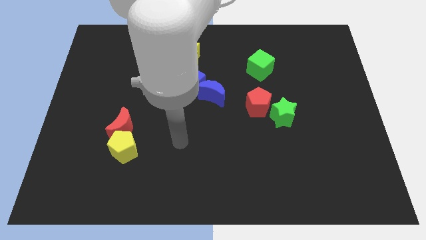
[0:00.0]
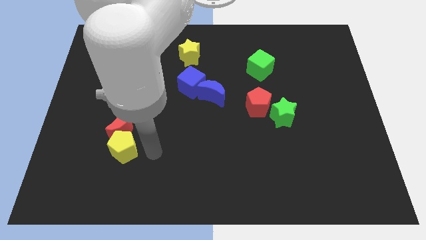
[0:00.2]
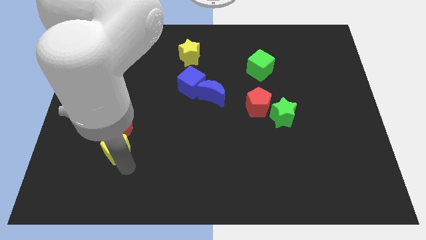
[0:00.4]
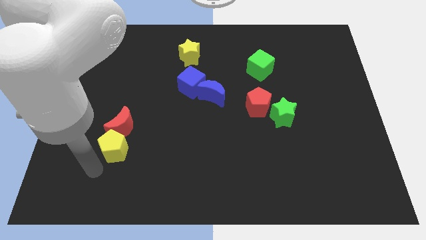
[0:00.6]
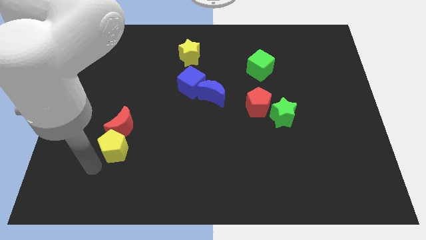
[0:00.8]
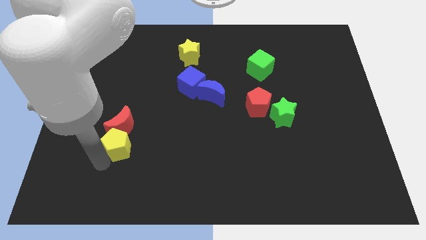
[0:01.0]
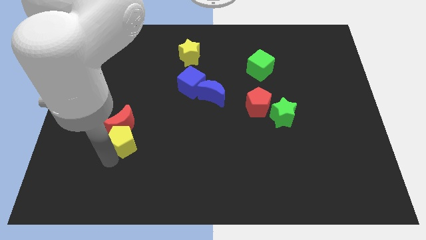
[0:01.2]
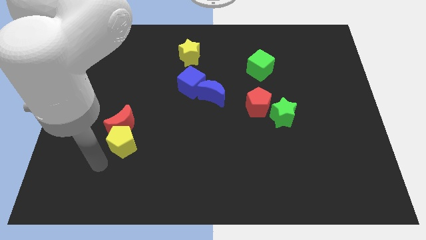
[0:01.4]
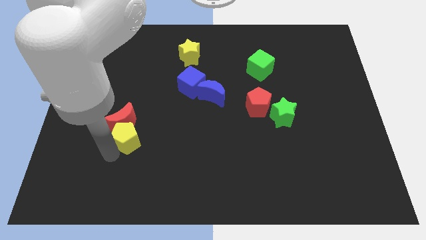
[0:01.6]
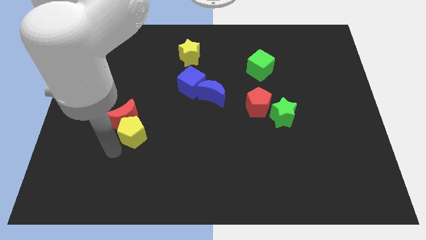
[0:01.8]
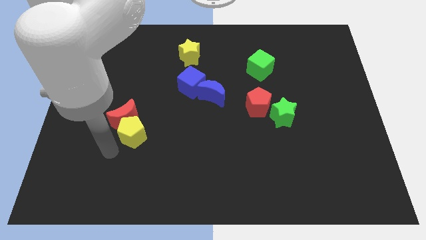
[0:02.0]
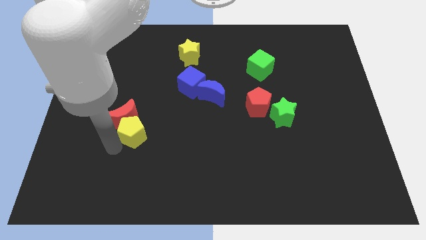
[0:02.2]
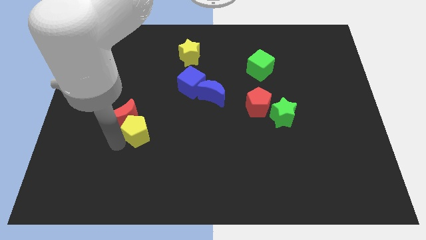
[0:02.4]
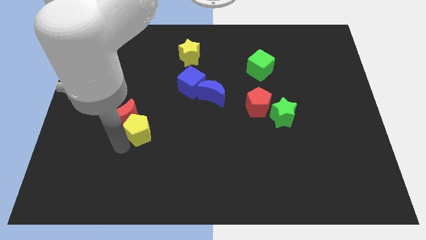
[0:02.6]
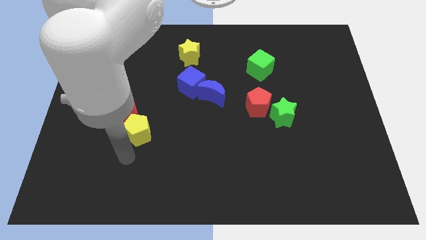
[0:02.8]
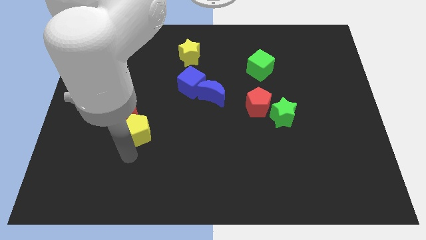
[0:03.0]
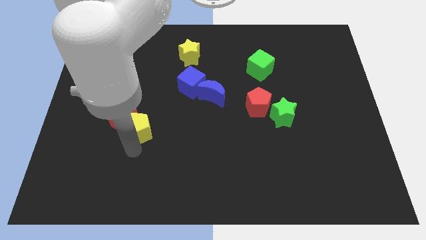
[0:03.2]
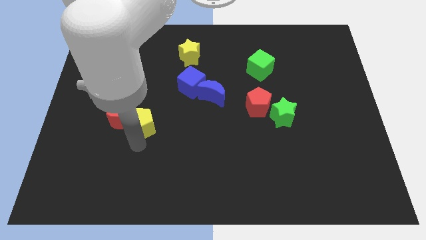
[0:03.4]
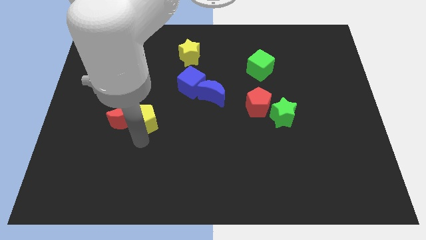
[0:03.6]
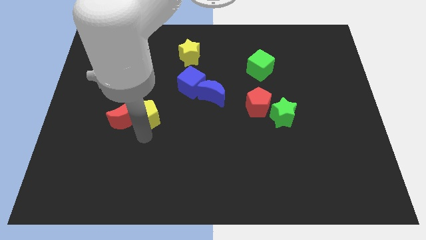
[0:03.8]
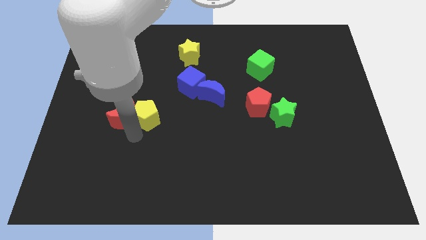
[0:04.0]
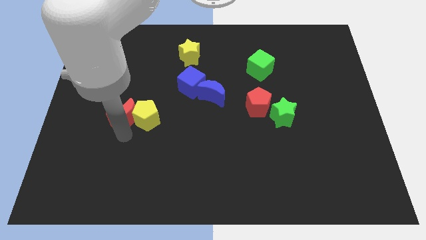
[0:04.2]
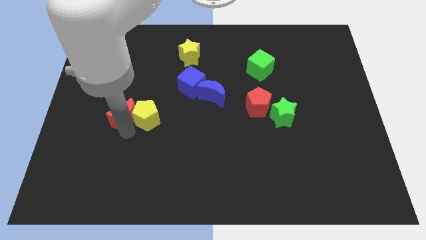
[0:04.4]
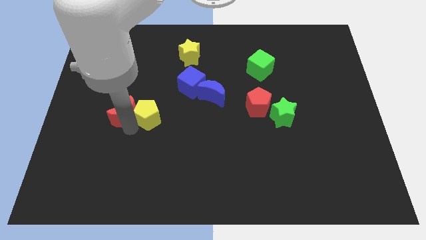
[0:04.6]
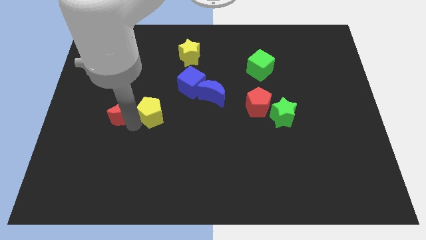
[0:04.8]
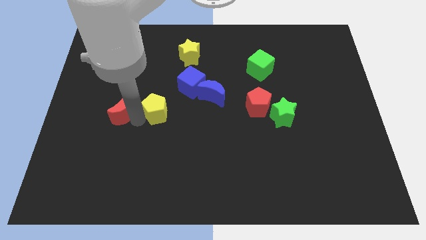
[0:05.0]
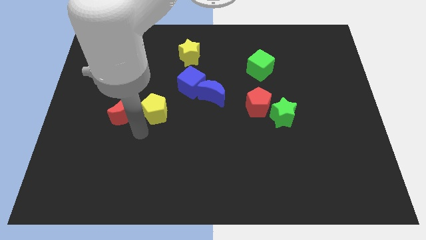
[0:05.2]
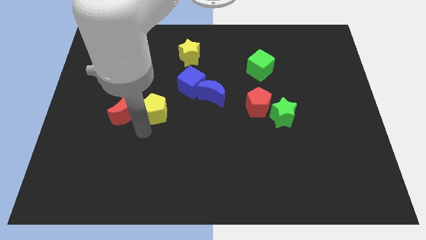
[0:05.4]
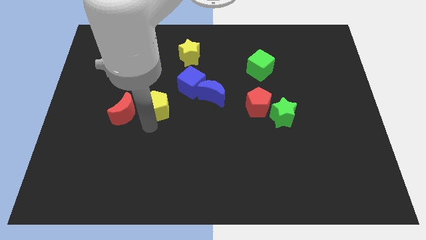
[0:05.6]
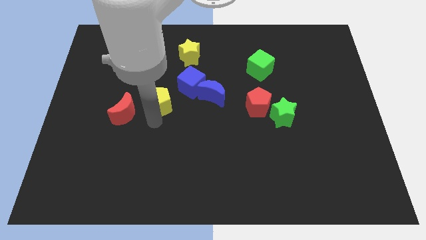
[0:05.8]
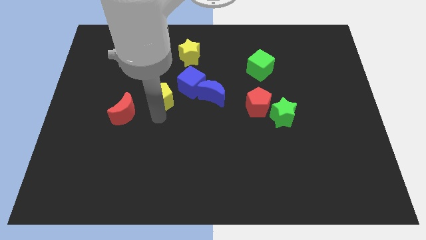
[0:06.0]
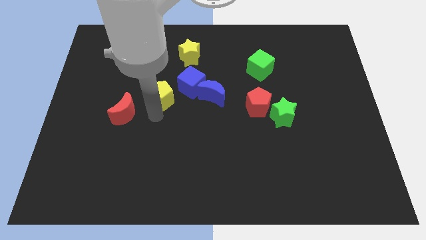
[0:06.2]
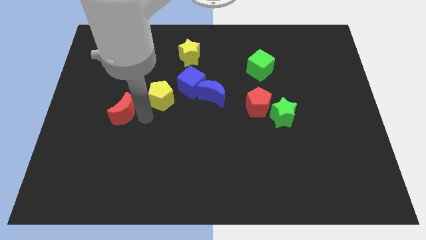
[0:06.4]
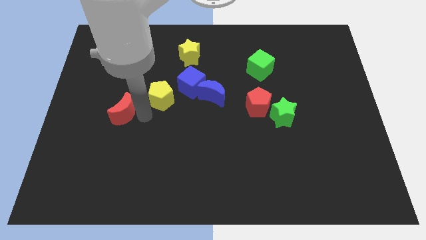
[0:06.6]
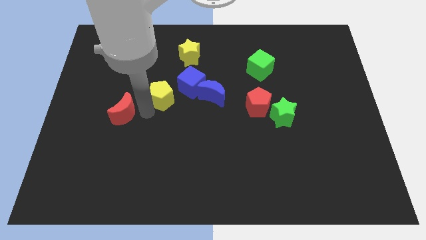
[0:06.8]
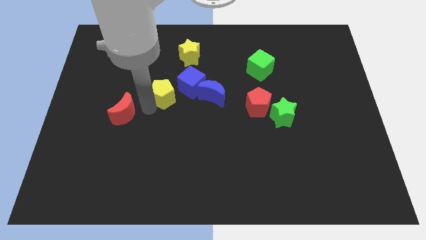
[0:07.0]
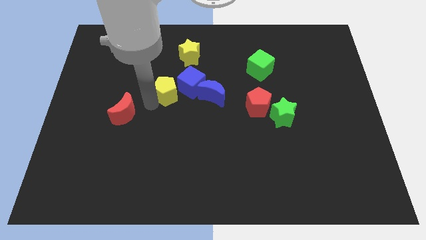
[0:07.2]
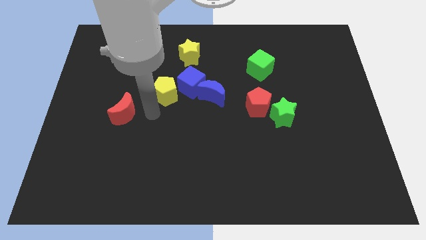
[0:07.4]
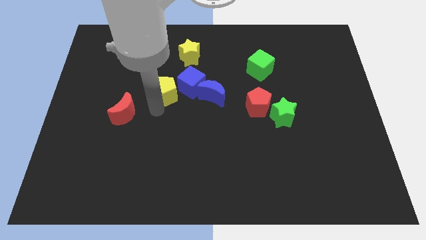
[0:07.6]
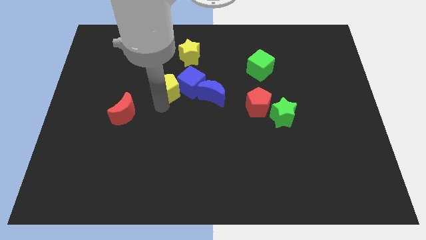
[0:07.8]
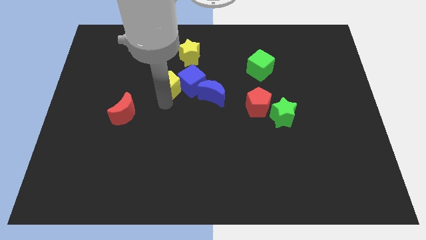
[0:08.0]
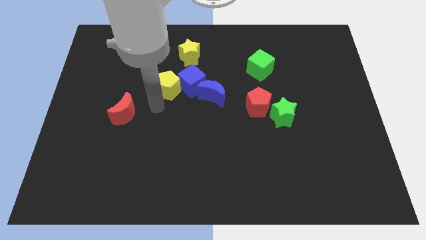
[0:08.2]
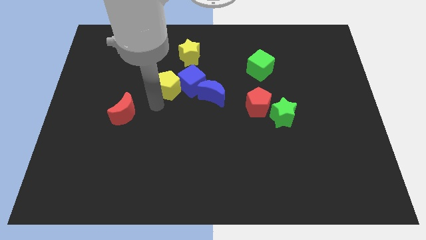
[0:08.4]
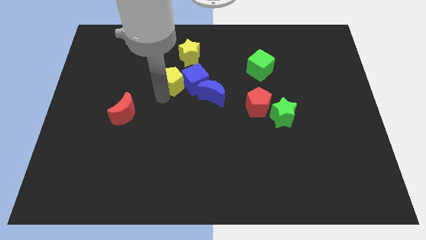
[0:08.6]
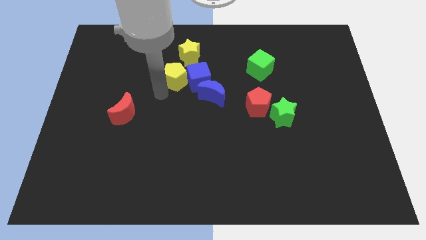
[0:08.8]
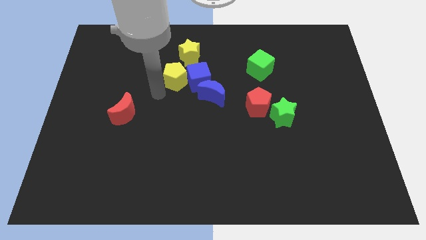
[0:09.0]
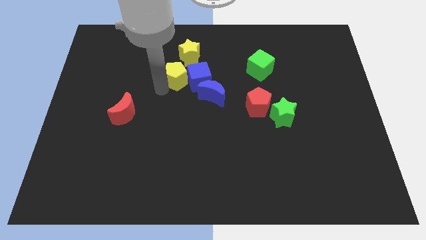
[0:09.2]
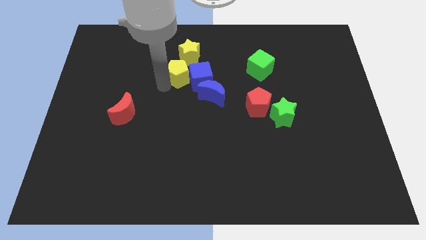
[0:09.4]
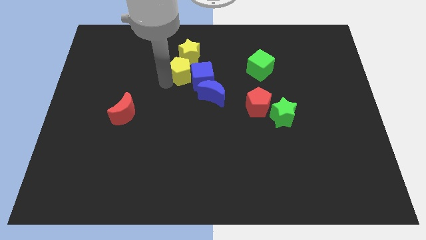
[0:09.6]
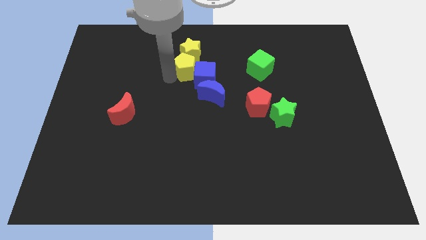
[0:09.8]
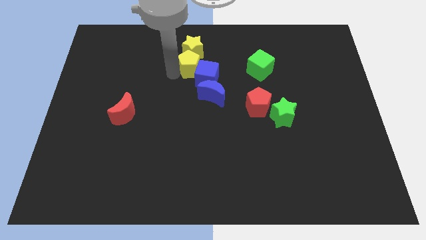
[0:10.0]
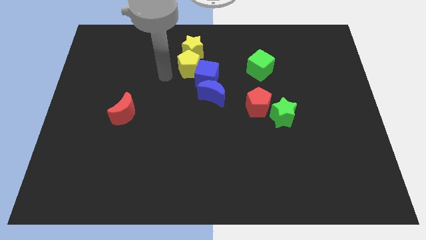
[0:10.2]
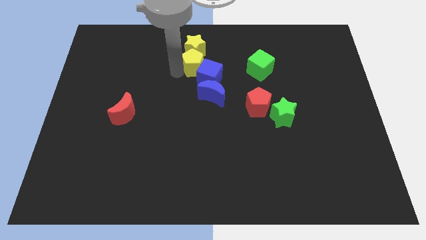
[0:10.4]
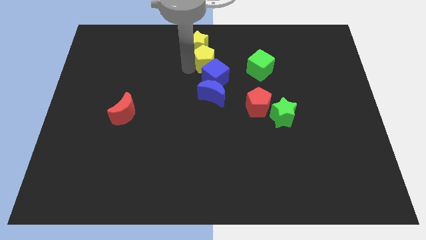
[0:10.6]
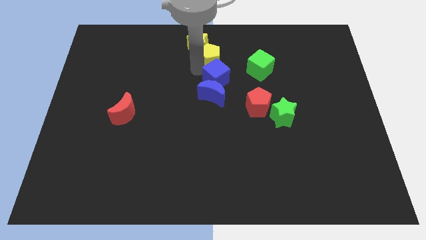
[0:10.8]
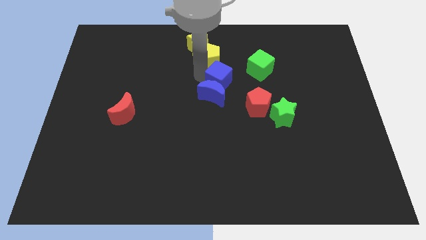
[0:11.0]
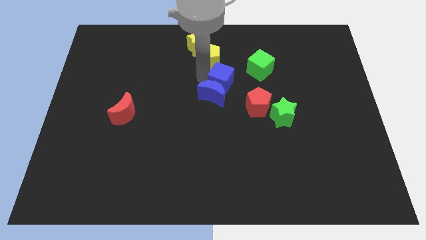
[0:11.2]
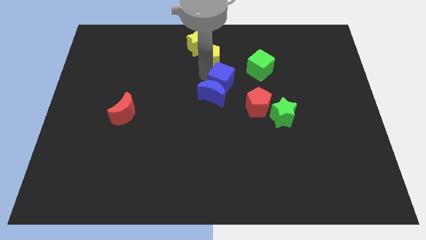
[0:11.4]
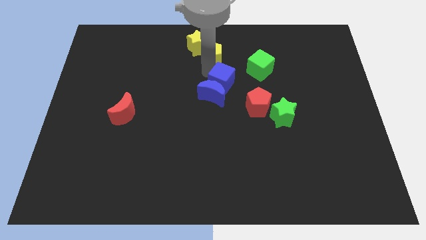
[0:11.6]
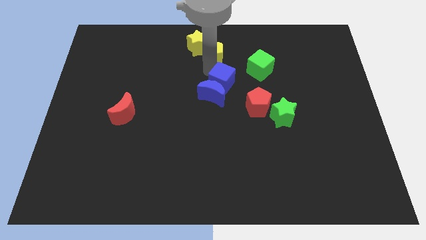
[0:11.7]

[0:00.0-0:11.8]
move the yellow pentagon to the top

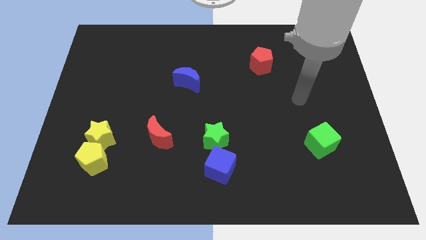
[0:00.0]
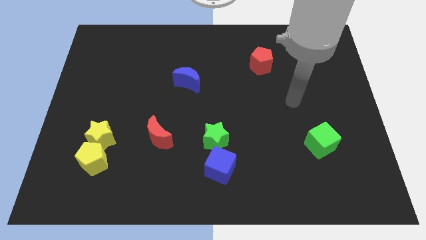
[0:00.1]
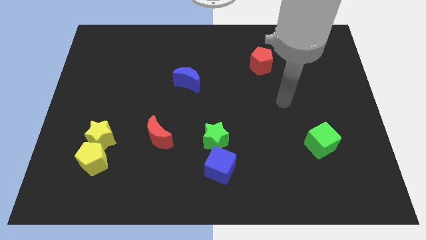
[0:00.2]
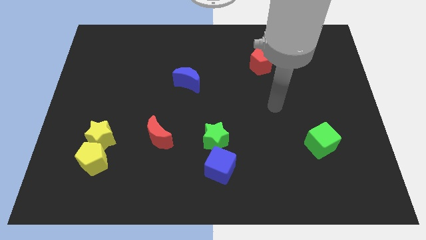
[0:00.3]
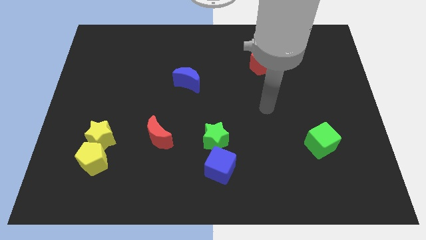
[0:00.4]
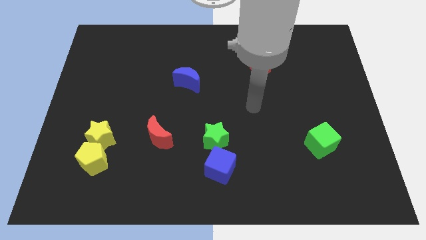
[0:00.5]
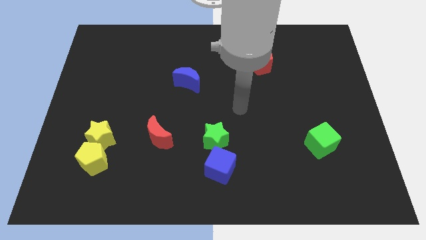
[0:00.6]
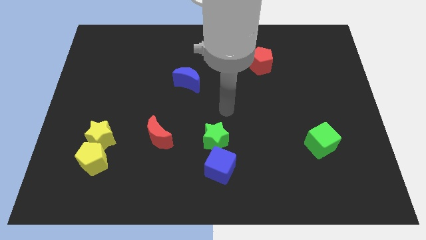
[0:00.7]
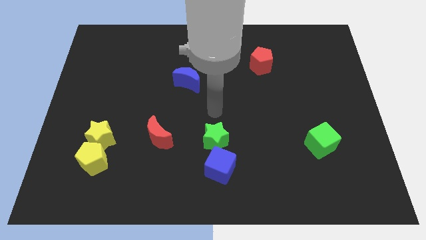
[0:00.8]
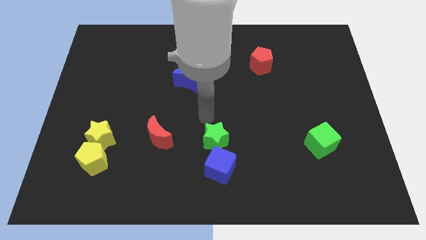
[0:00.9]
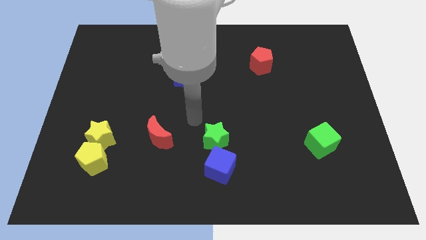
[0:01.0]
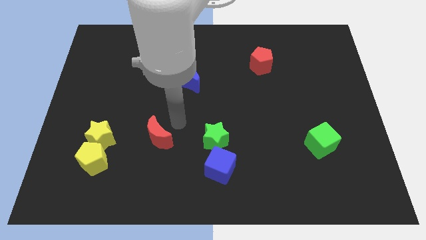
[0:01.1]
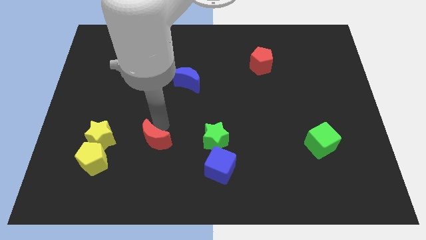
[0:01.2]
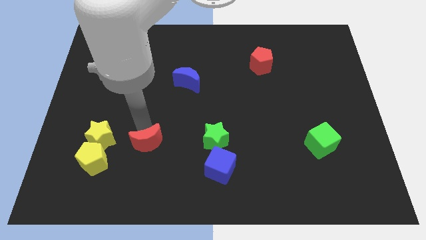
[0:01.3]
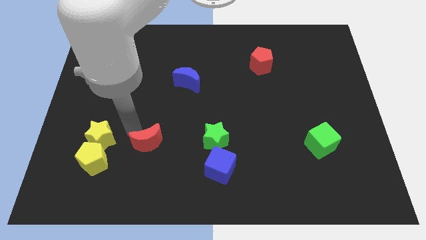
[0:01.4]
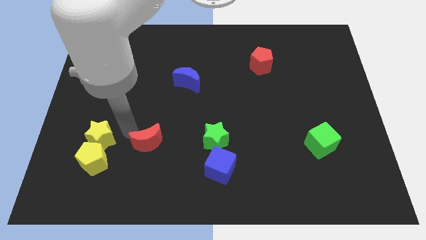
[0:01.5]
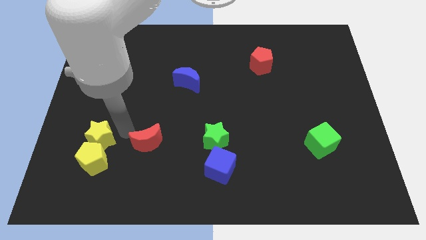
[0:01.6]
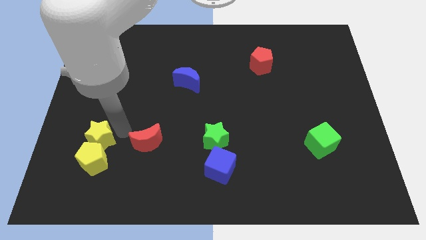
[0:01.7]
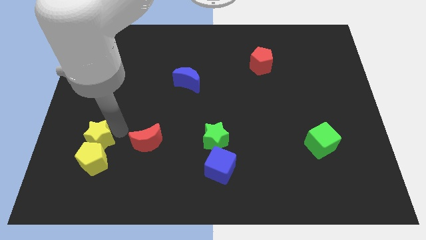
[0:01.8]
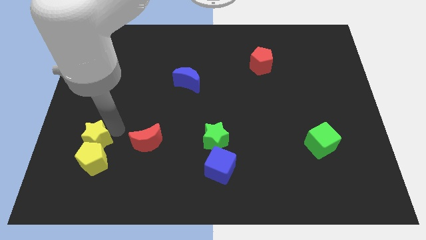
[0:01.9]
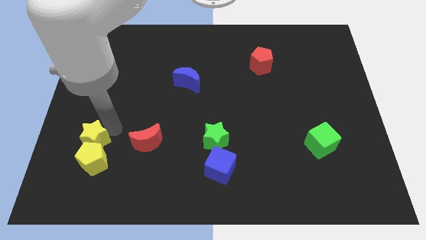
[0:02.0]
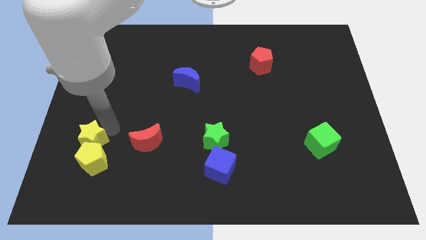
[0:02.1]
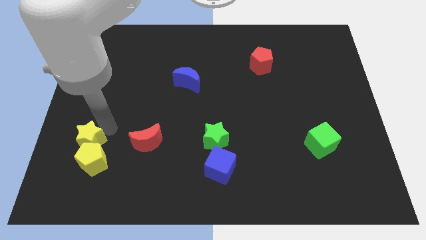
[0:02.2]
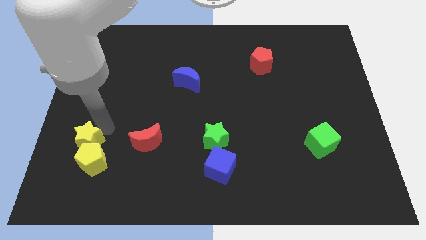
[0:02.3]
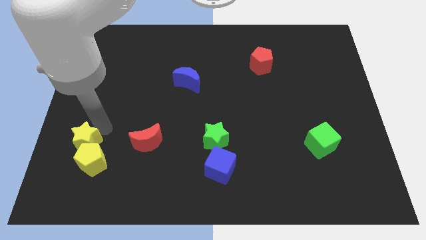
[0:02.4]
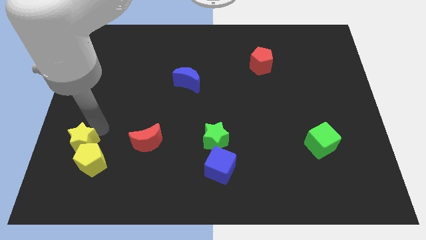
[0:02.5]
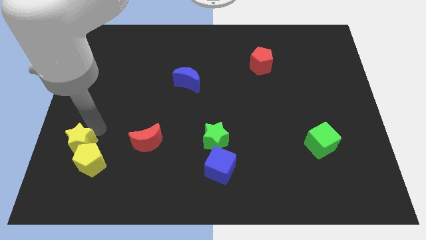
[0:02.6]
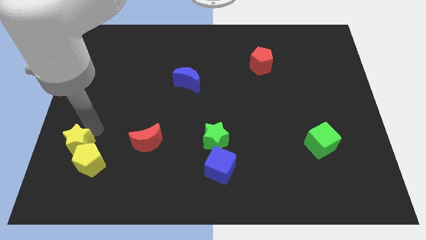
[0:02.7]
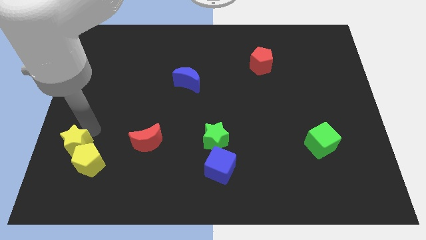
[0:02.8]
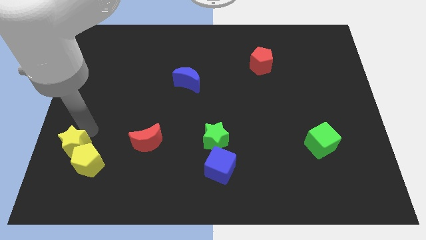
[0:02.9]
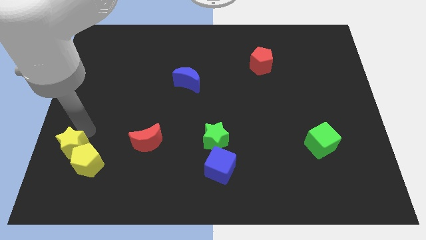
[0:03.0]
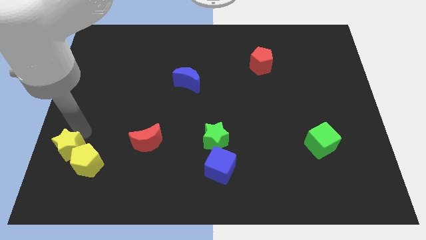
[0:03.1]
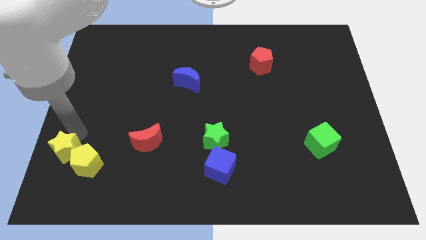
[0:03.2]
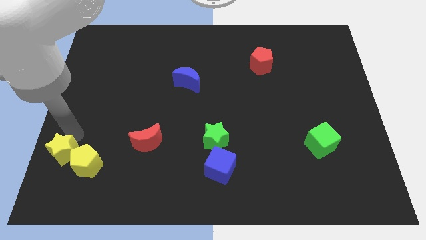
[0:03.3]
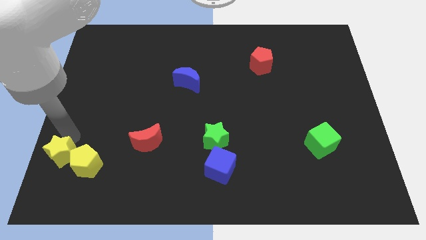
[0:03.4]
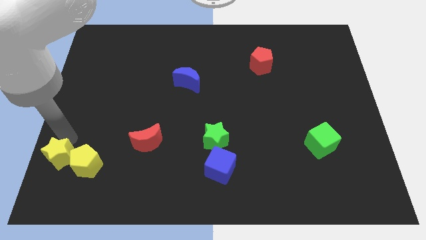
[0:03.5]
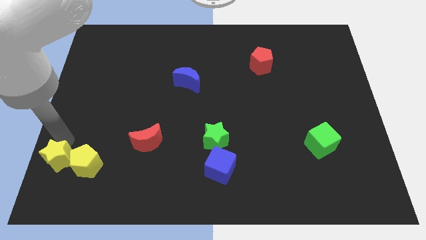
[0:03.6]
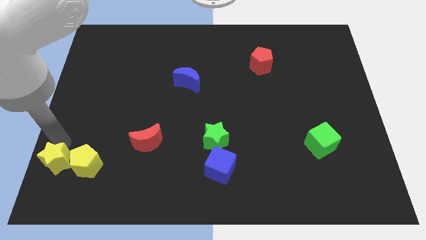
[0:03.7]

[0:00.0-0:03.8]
put the yellow star to the bottom left of the board
